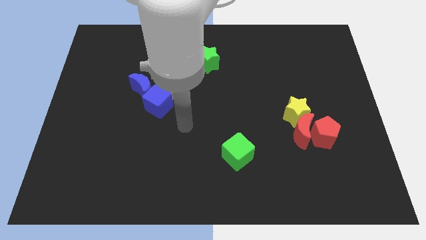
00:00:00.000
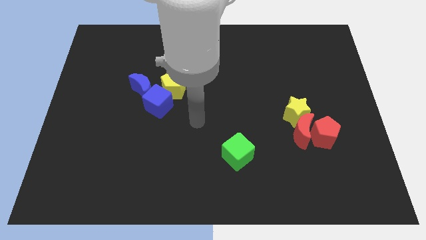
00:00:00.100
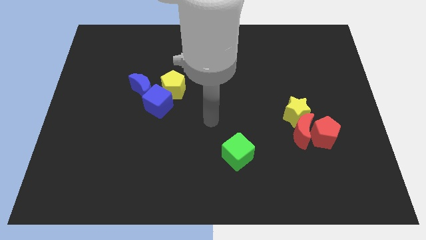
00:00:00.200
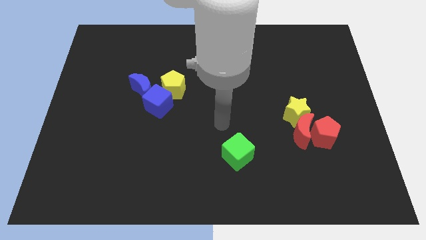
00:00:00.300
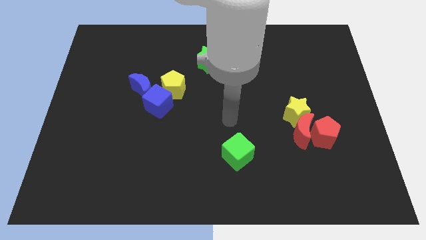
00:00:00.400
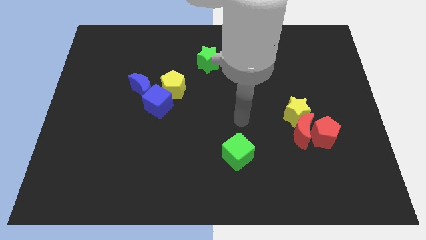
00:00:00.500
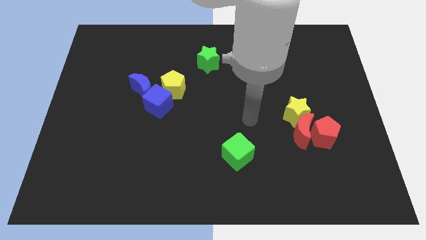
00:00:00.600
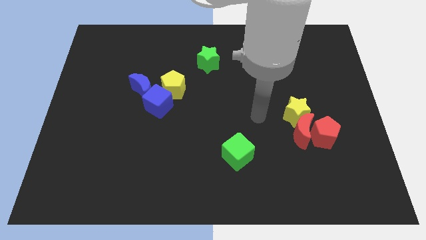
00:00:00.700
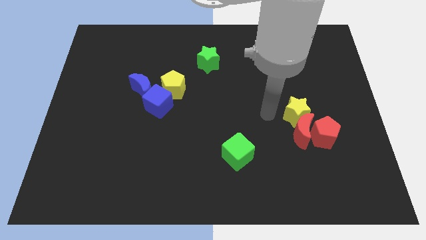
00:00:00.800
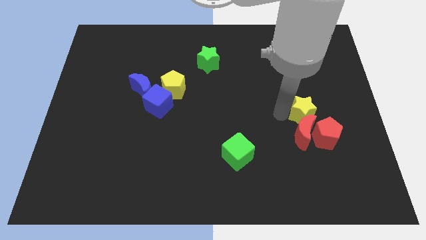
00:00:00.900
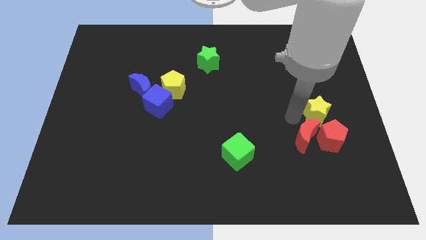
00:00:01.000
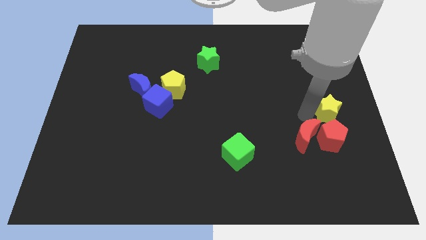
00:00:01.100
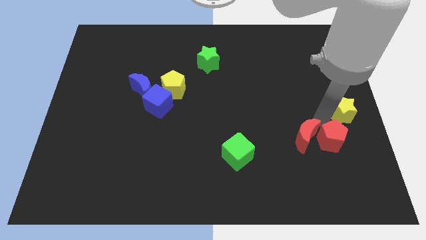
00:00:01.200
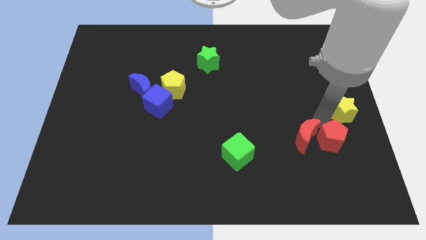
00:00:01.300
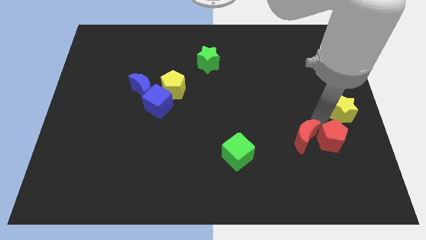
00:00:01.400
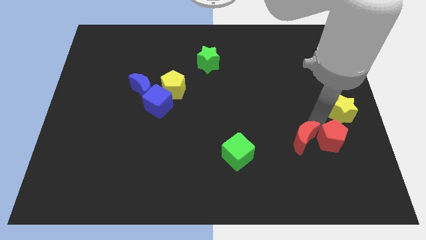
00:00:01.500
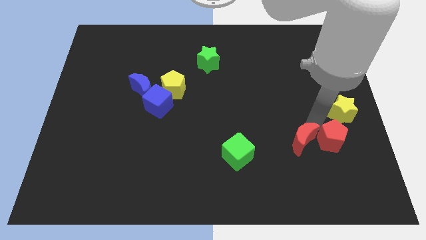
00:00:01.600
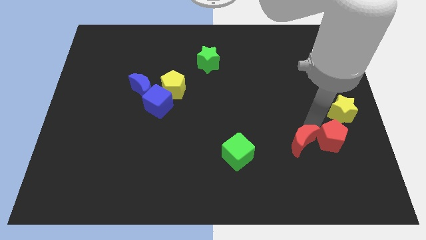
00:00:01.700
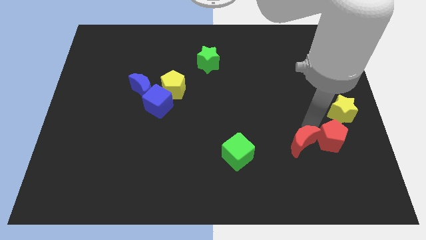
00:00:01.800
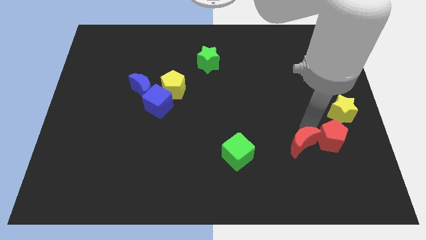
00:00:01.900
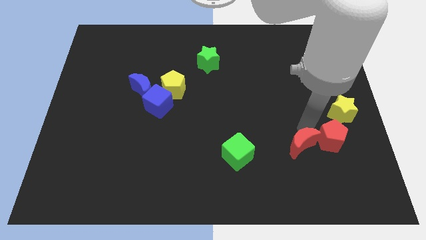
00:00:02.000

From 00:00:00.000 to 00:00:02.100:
separate the red moon from the red pentagon and yellow star

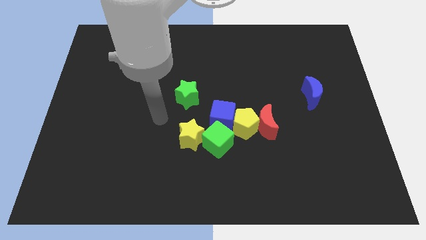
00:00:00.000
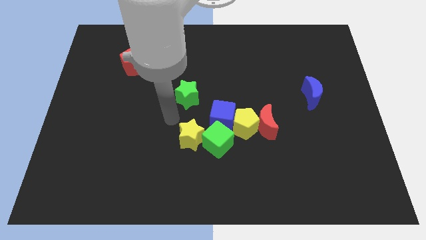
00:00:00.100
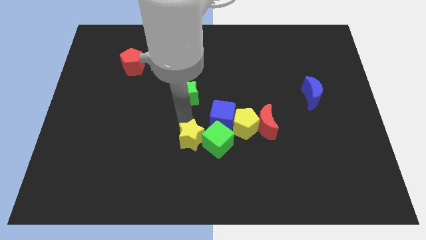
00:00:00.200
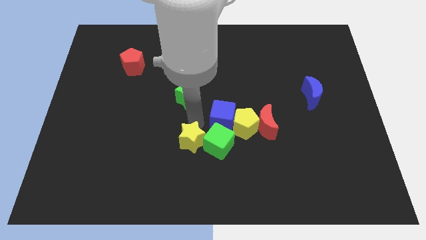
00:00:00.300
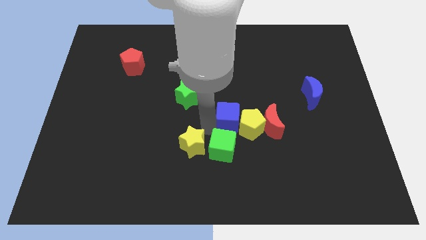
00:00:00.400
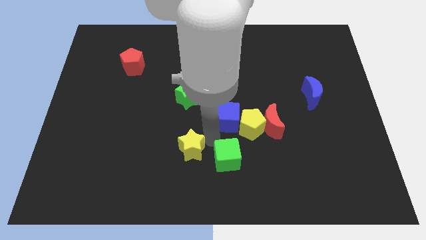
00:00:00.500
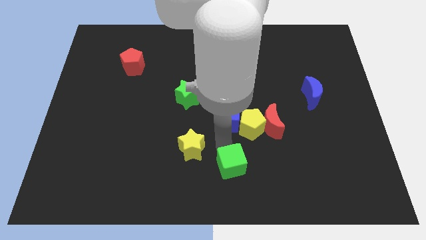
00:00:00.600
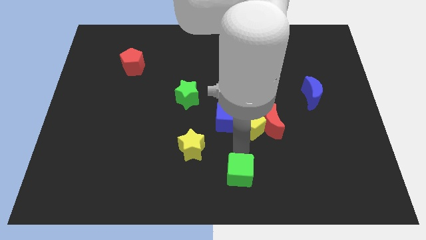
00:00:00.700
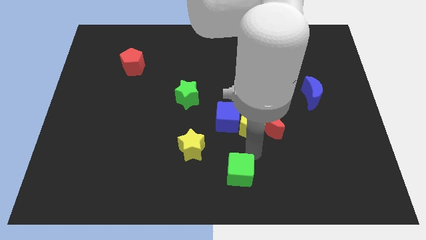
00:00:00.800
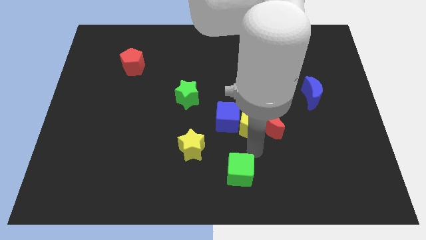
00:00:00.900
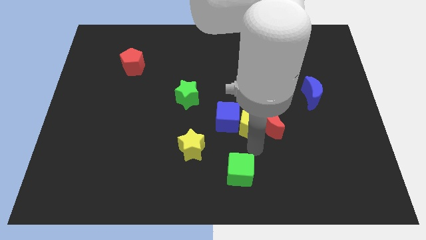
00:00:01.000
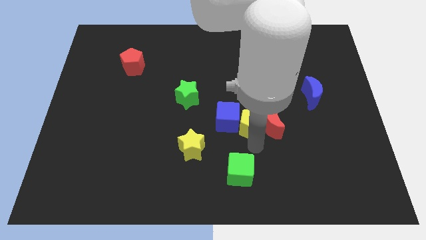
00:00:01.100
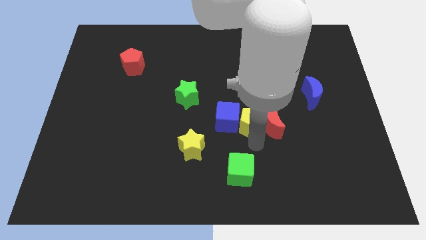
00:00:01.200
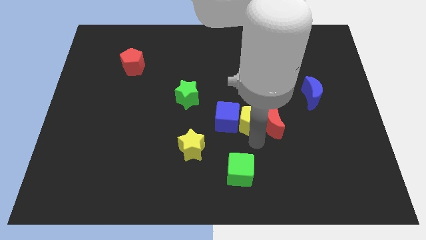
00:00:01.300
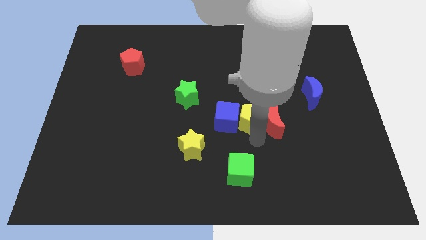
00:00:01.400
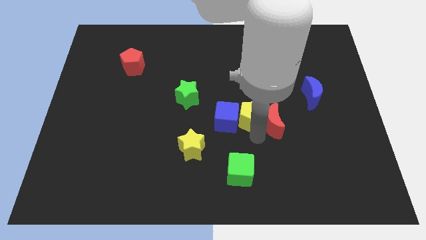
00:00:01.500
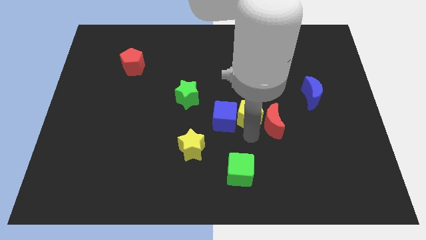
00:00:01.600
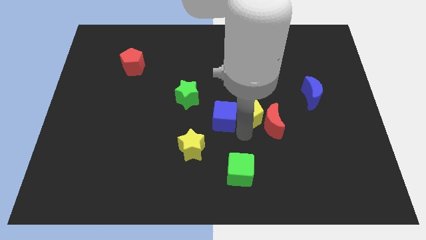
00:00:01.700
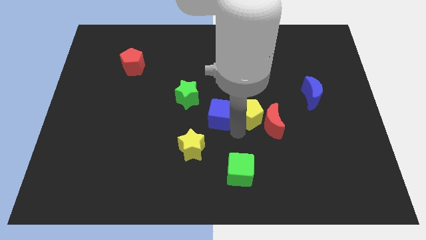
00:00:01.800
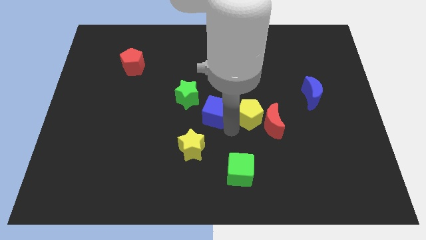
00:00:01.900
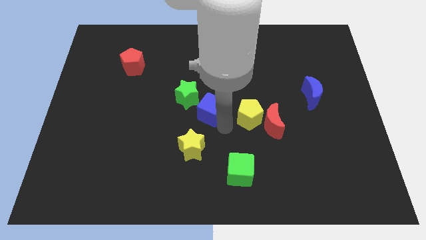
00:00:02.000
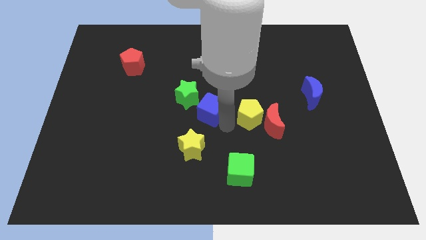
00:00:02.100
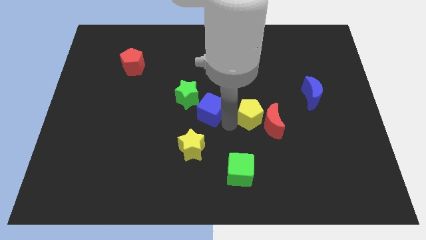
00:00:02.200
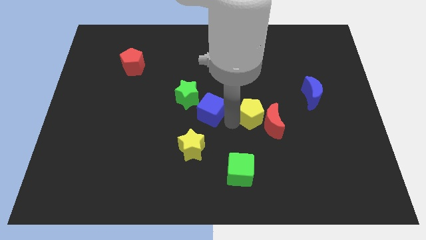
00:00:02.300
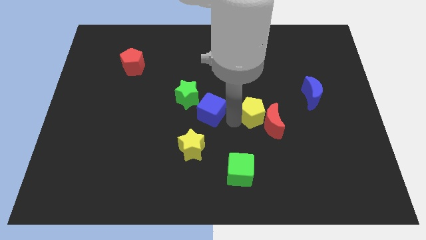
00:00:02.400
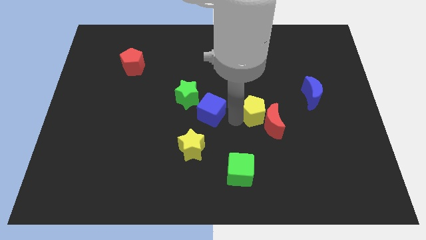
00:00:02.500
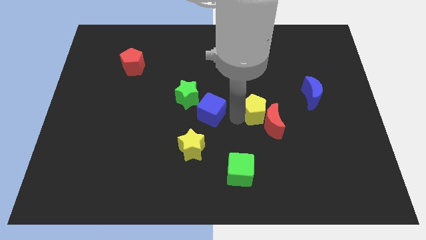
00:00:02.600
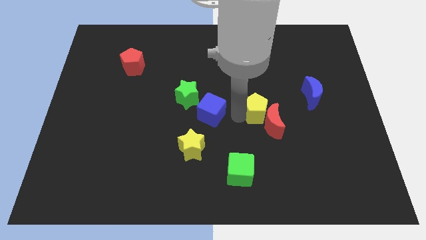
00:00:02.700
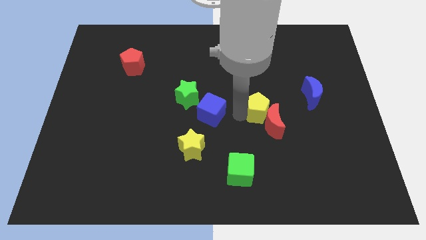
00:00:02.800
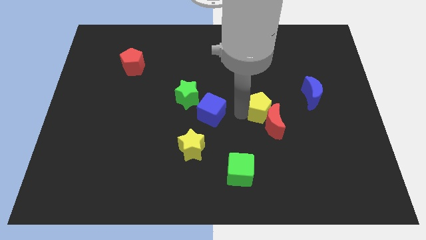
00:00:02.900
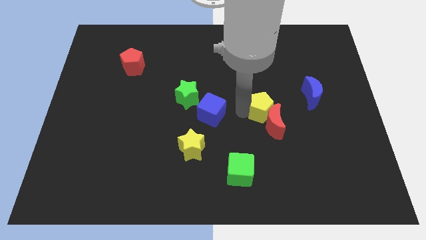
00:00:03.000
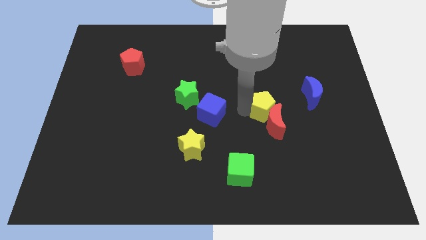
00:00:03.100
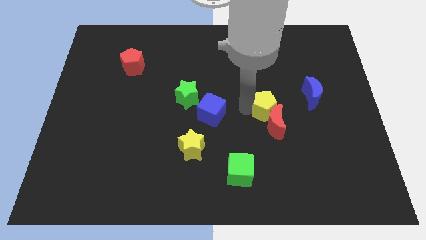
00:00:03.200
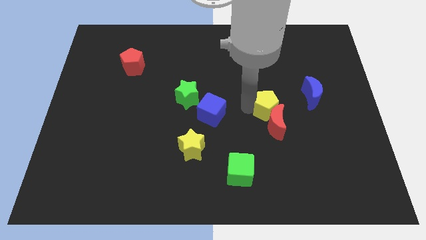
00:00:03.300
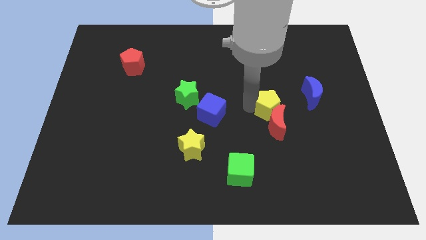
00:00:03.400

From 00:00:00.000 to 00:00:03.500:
pull the yellow pentagon apart from the red moon, blue cube, and green cube

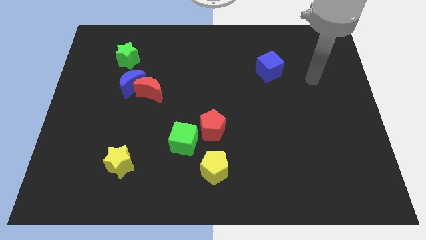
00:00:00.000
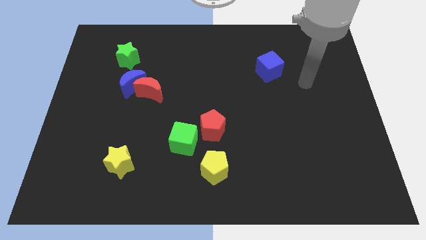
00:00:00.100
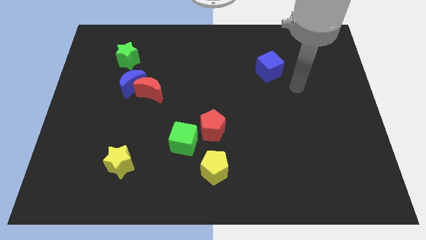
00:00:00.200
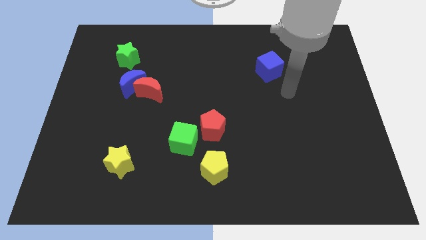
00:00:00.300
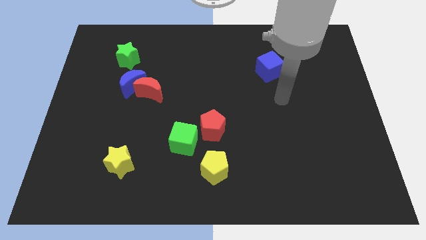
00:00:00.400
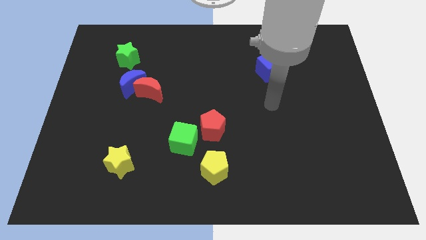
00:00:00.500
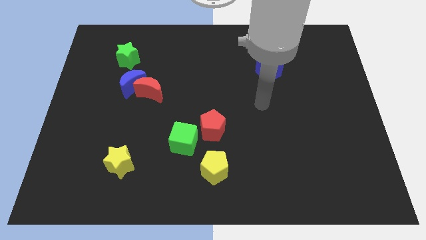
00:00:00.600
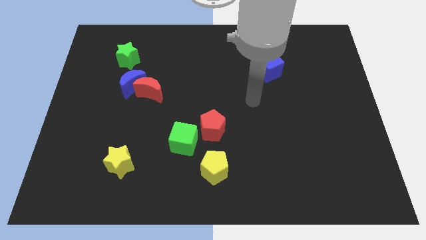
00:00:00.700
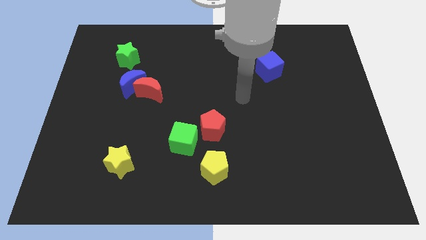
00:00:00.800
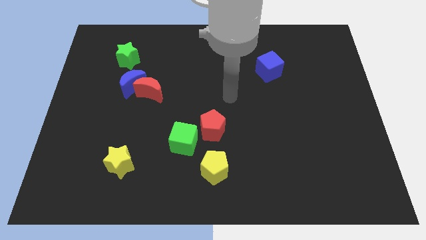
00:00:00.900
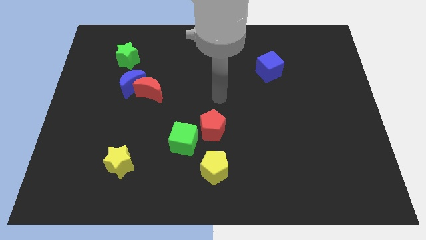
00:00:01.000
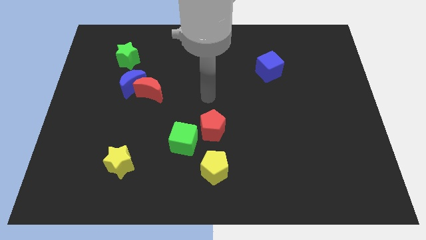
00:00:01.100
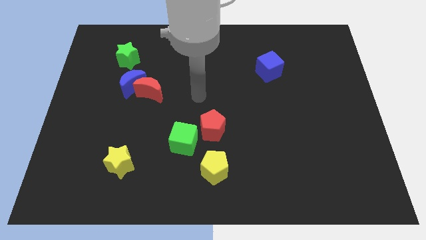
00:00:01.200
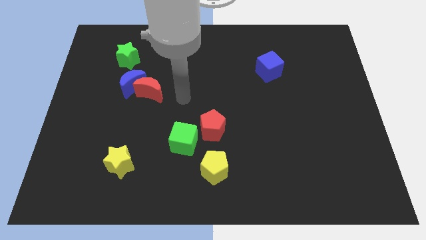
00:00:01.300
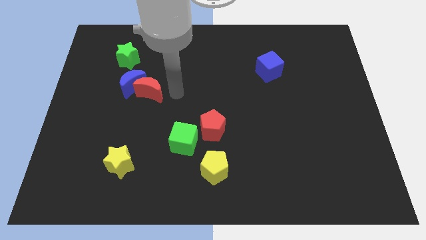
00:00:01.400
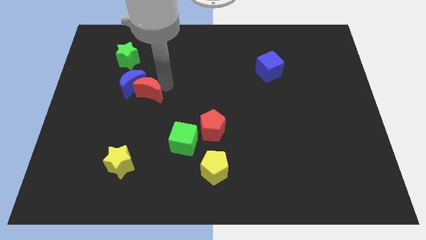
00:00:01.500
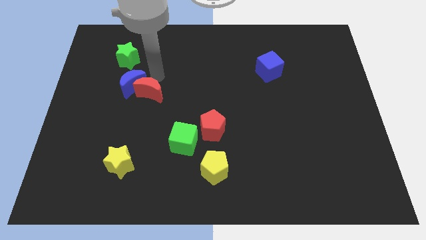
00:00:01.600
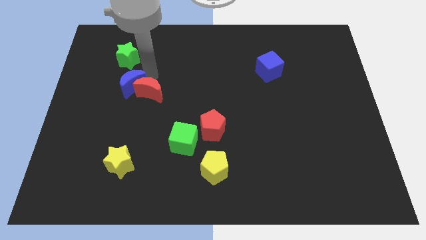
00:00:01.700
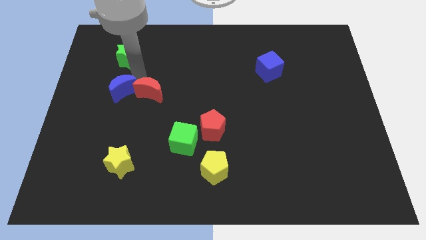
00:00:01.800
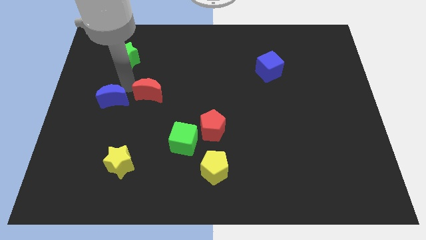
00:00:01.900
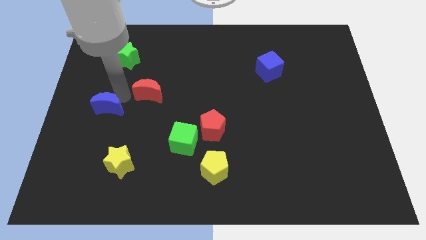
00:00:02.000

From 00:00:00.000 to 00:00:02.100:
separate the red moon from the blue moon

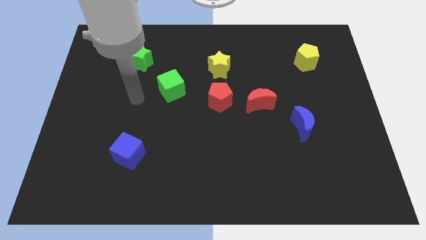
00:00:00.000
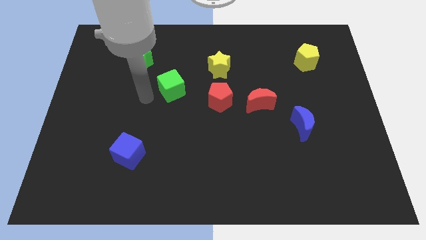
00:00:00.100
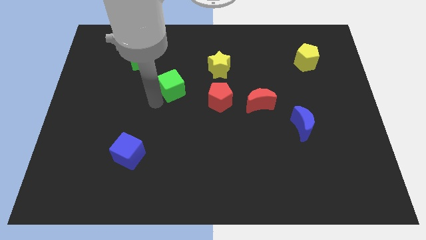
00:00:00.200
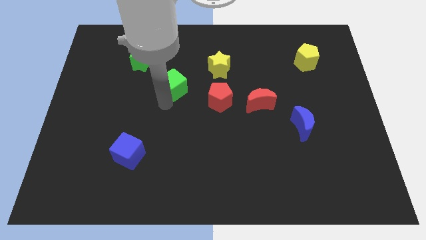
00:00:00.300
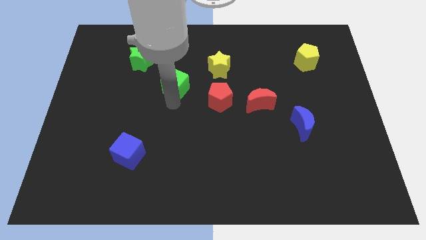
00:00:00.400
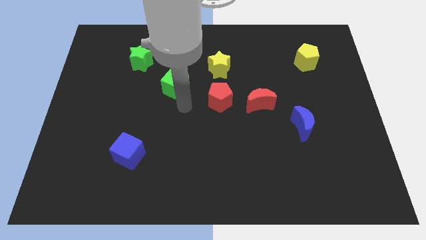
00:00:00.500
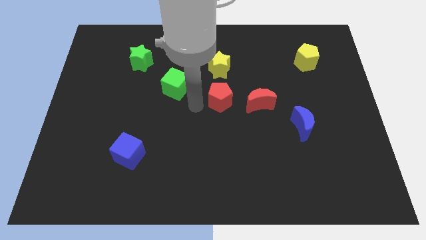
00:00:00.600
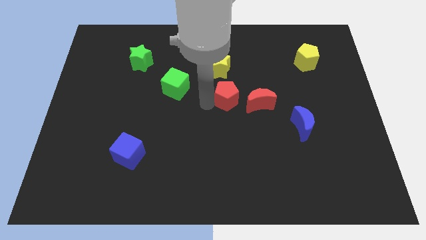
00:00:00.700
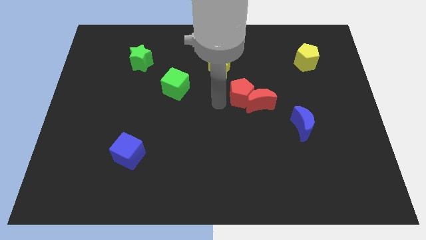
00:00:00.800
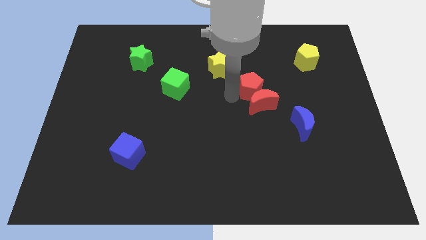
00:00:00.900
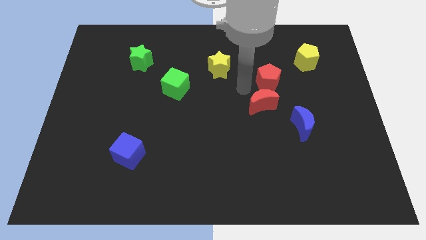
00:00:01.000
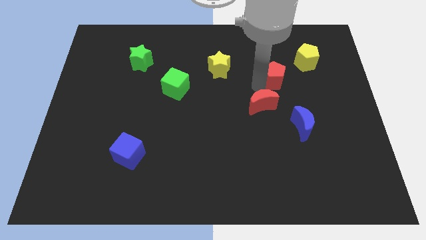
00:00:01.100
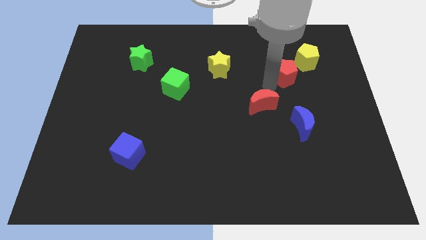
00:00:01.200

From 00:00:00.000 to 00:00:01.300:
move the red moon away from the red pentagon

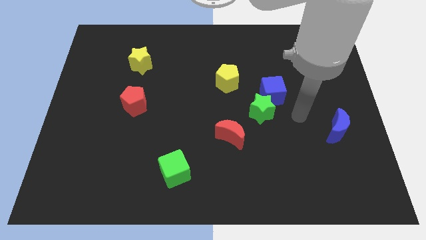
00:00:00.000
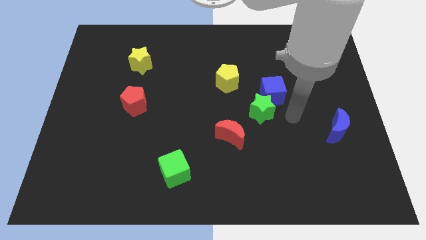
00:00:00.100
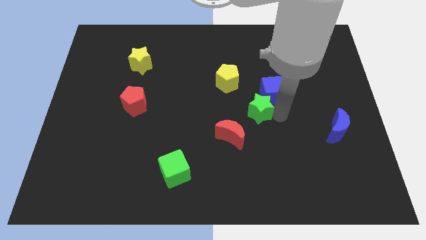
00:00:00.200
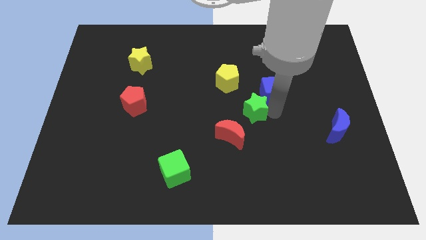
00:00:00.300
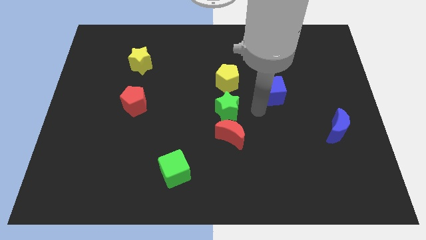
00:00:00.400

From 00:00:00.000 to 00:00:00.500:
separate the blue cube from the green star
